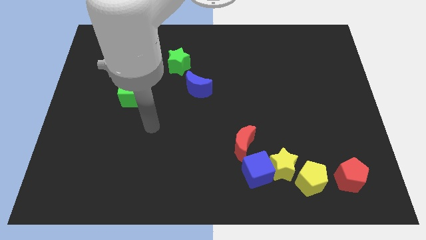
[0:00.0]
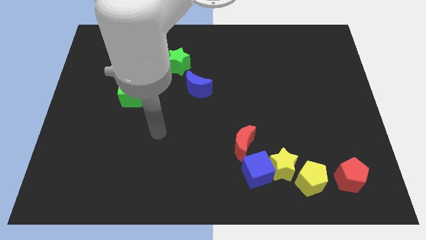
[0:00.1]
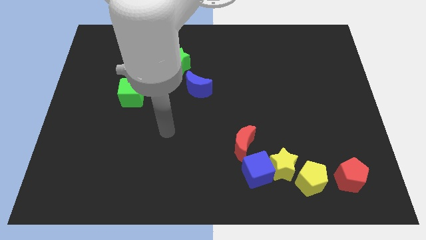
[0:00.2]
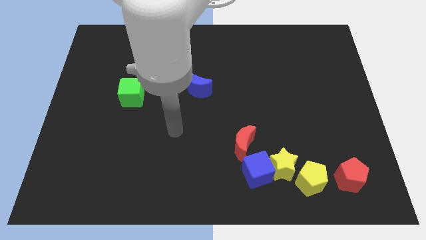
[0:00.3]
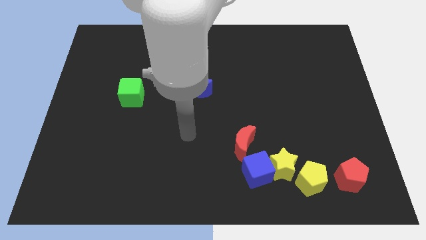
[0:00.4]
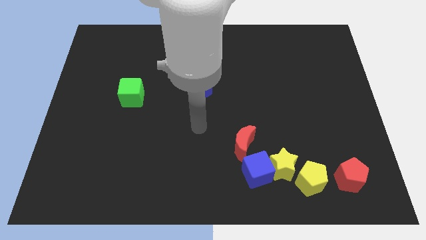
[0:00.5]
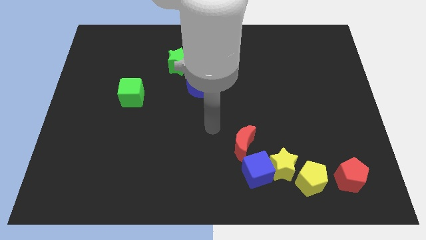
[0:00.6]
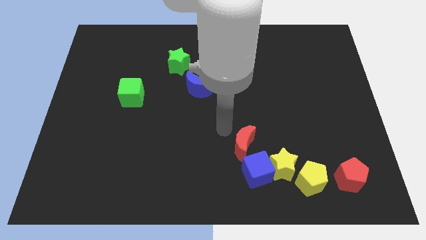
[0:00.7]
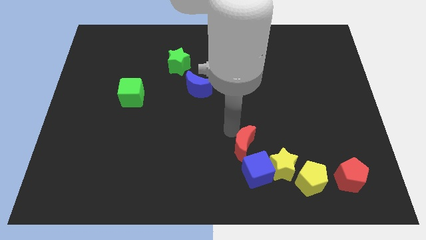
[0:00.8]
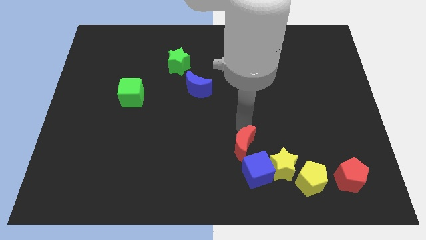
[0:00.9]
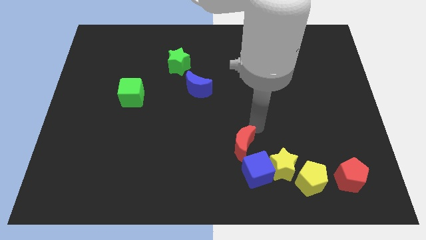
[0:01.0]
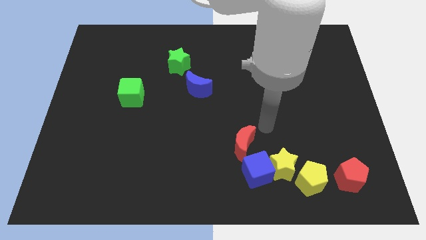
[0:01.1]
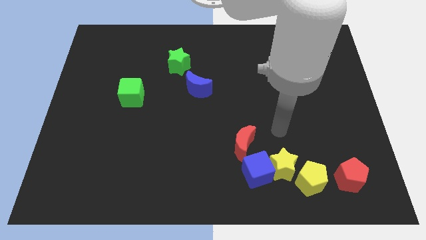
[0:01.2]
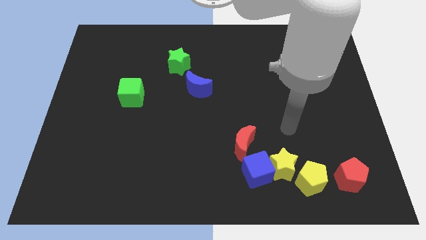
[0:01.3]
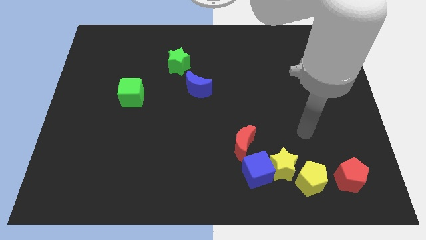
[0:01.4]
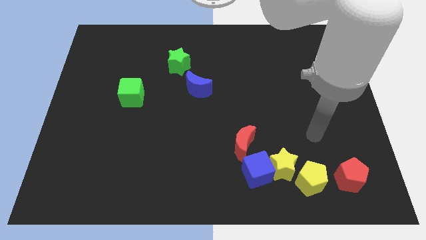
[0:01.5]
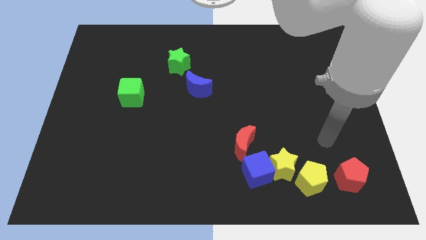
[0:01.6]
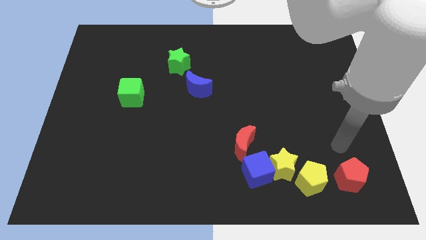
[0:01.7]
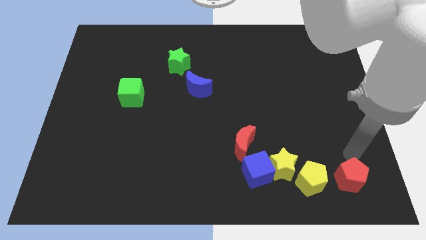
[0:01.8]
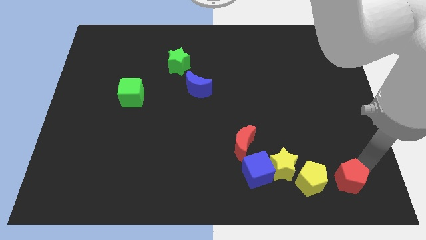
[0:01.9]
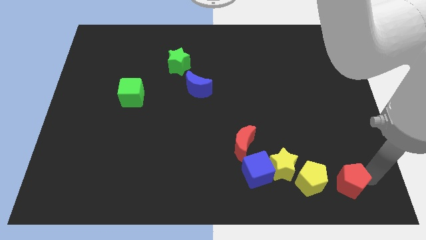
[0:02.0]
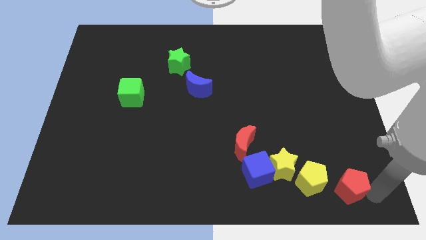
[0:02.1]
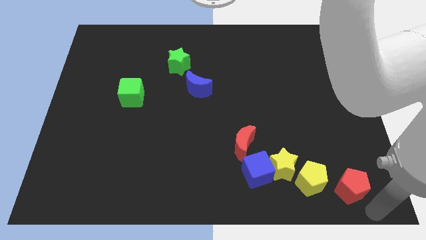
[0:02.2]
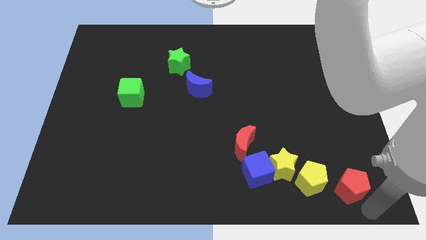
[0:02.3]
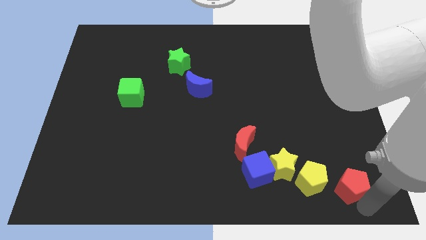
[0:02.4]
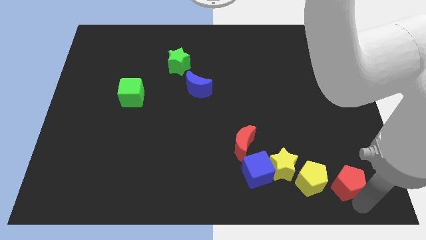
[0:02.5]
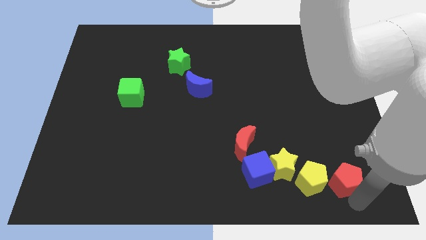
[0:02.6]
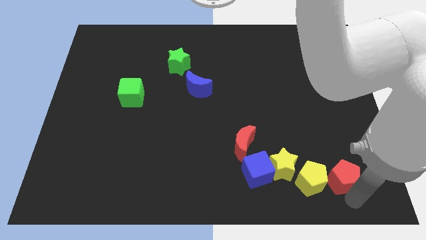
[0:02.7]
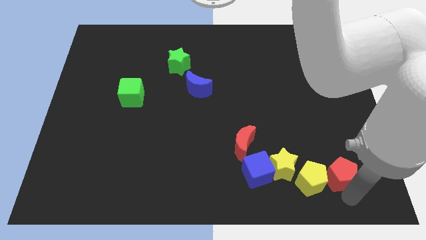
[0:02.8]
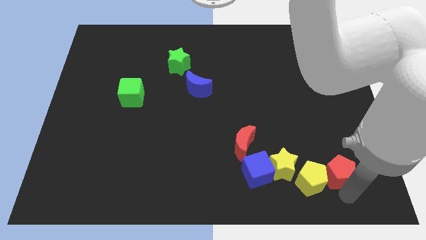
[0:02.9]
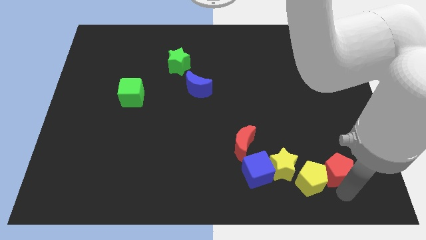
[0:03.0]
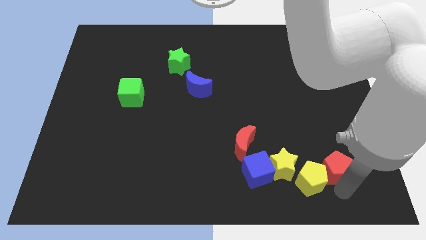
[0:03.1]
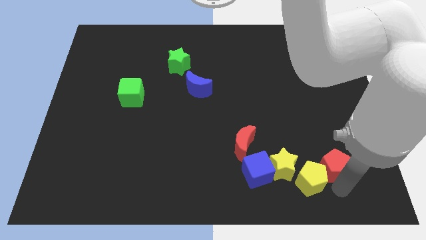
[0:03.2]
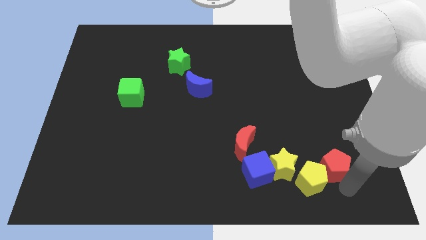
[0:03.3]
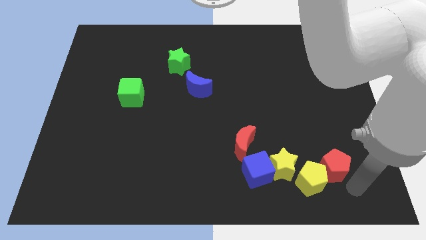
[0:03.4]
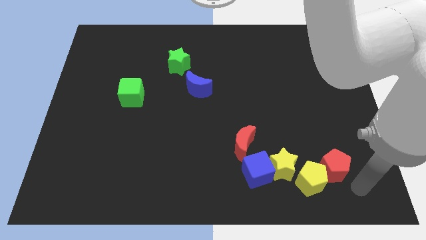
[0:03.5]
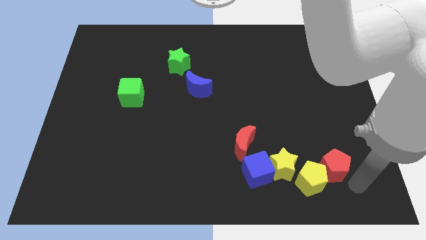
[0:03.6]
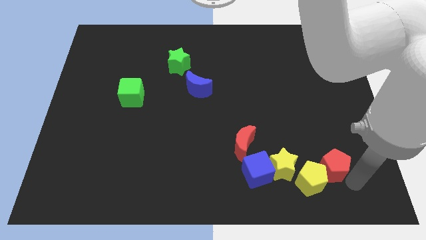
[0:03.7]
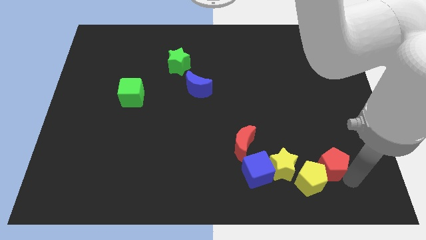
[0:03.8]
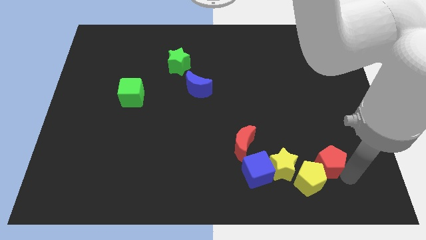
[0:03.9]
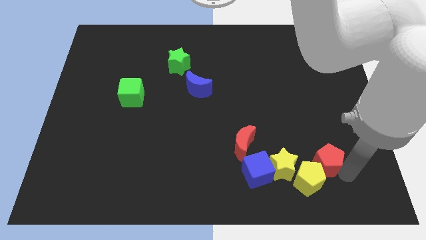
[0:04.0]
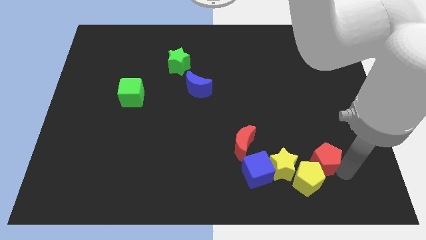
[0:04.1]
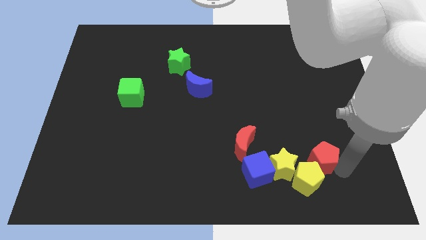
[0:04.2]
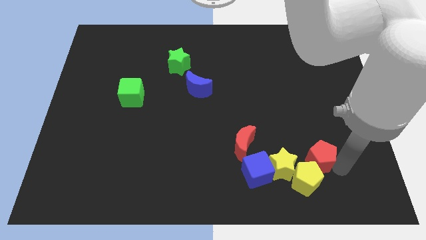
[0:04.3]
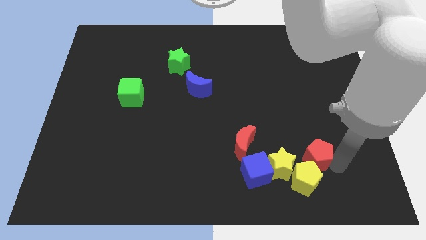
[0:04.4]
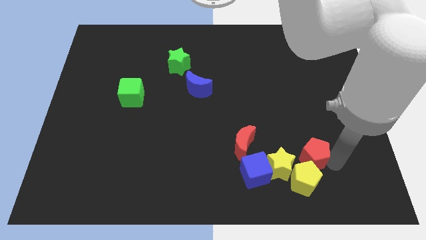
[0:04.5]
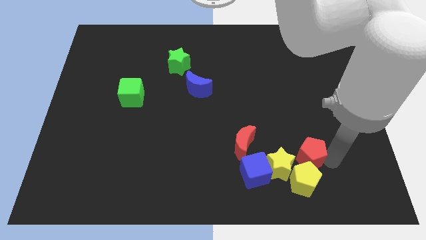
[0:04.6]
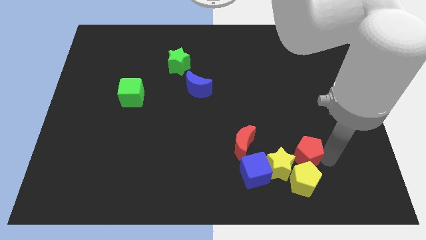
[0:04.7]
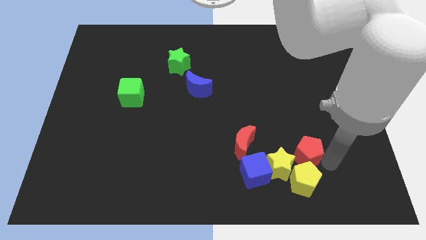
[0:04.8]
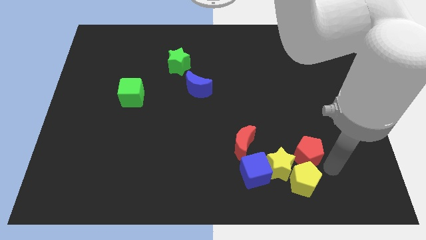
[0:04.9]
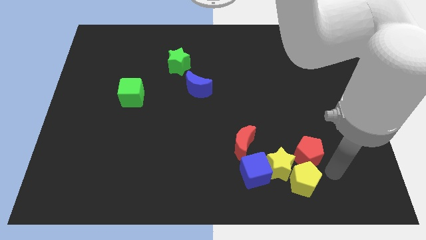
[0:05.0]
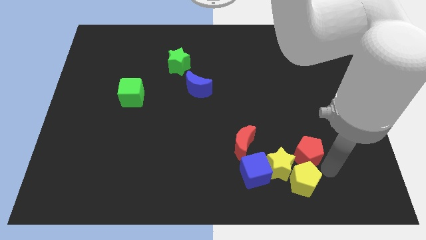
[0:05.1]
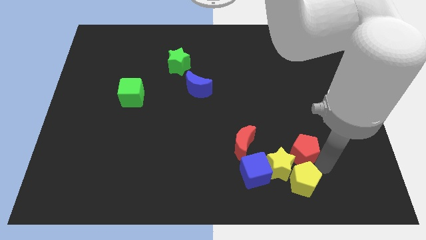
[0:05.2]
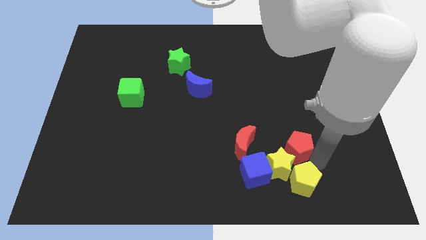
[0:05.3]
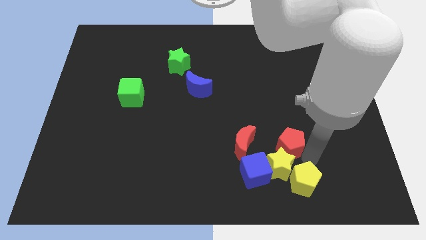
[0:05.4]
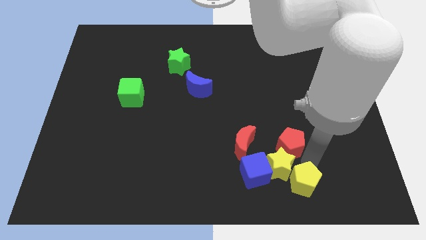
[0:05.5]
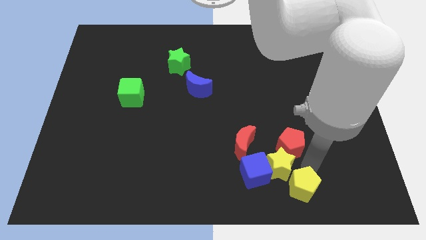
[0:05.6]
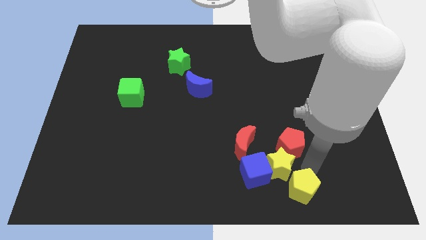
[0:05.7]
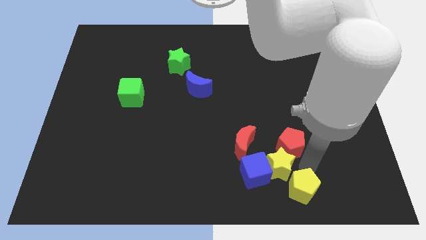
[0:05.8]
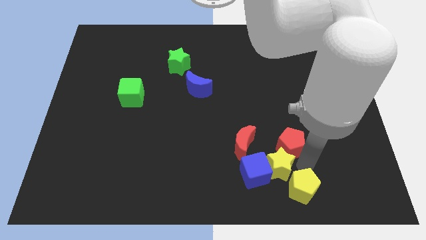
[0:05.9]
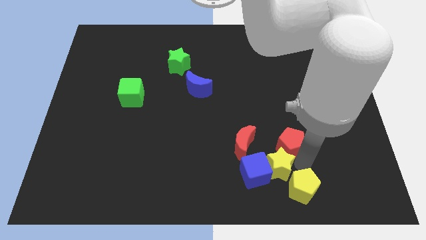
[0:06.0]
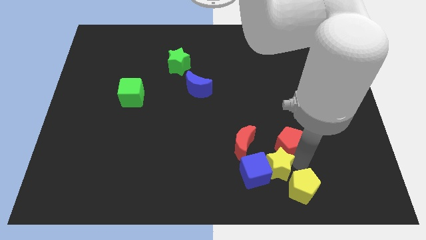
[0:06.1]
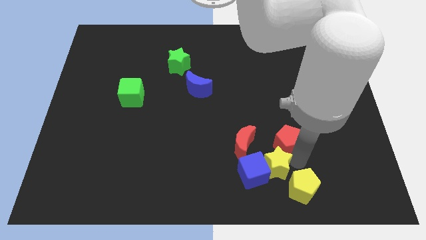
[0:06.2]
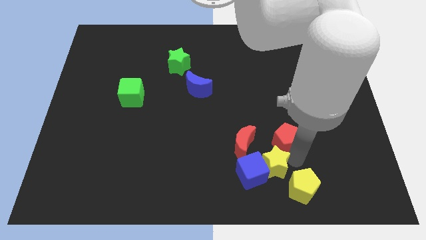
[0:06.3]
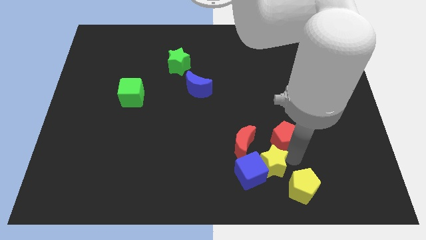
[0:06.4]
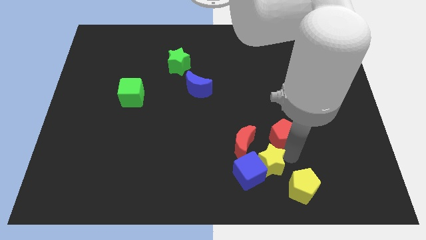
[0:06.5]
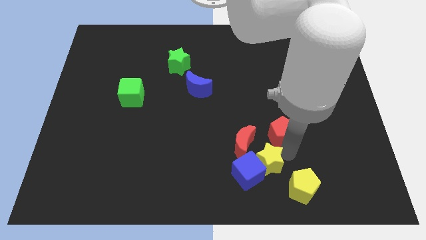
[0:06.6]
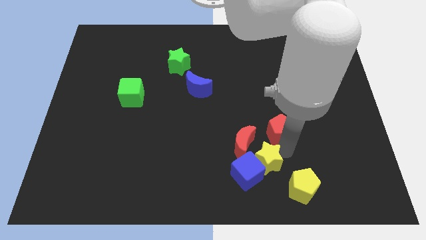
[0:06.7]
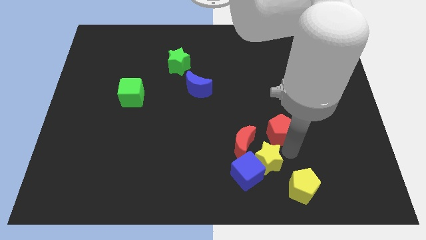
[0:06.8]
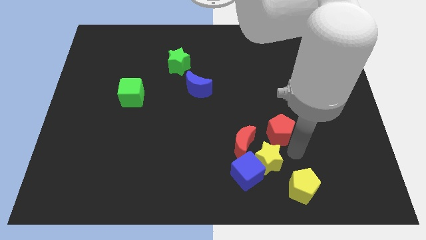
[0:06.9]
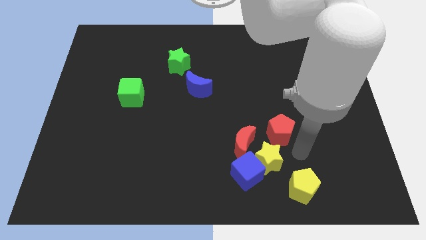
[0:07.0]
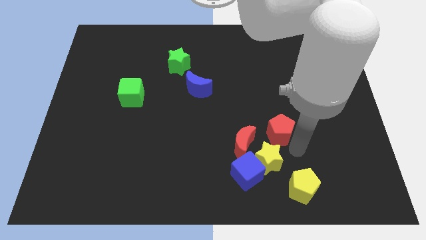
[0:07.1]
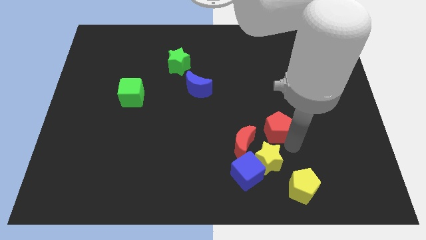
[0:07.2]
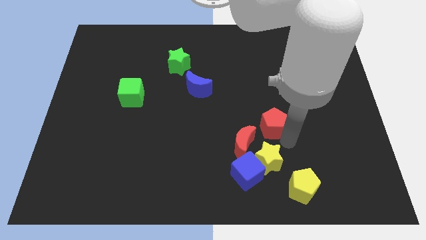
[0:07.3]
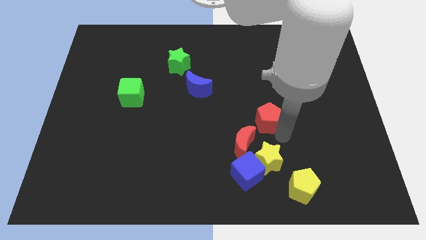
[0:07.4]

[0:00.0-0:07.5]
push the red pentagon upwards and left diagonally

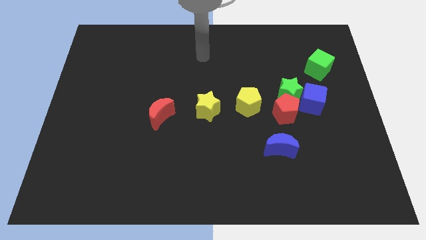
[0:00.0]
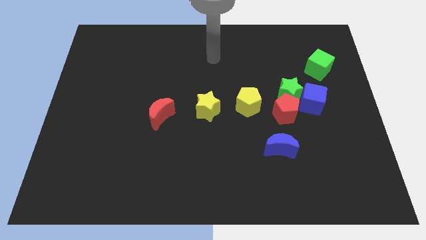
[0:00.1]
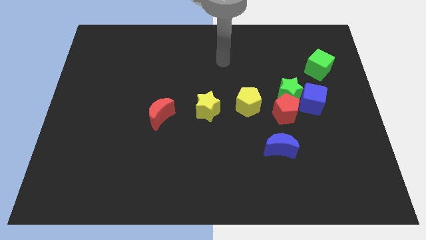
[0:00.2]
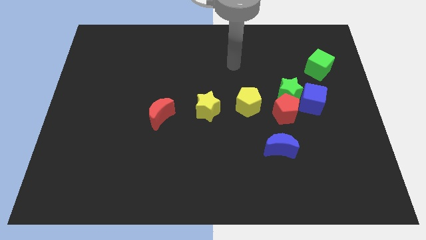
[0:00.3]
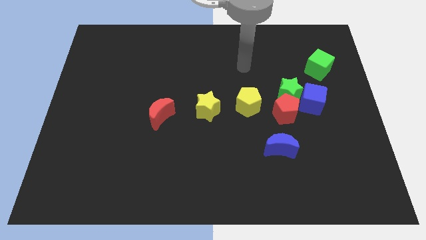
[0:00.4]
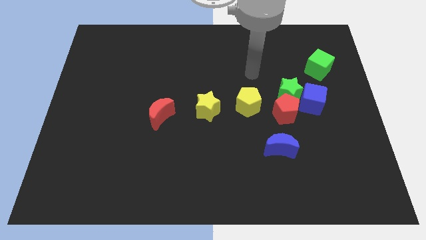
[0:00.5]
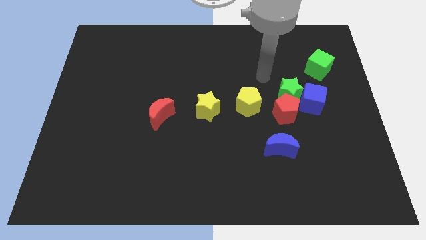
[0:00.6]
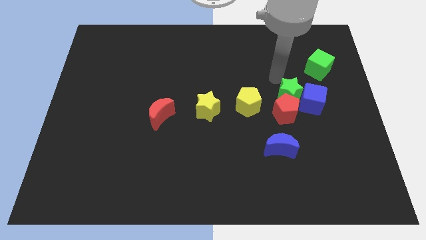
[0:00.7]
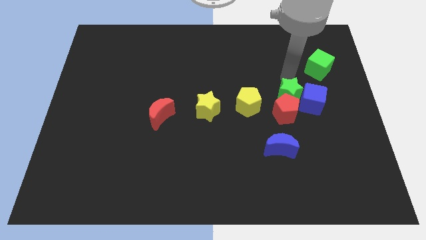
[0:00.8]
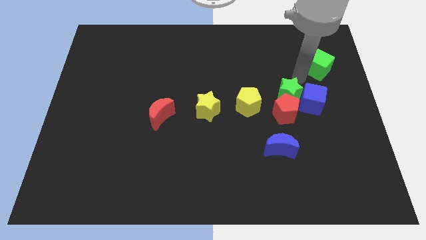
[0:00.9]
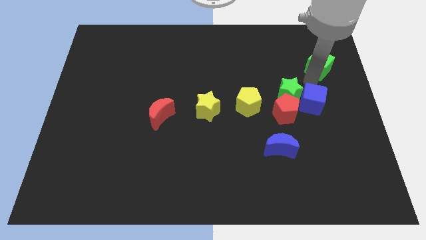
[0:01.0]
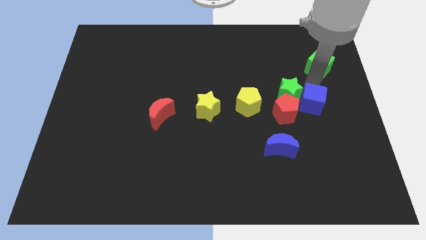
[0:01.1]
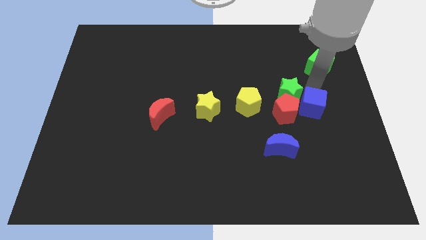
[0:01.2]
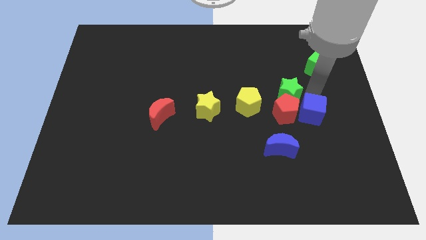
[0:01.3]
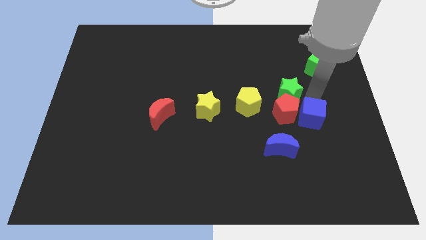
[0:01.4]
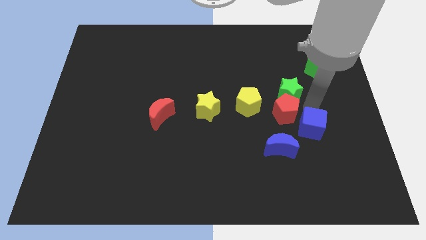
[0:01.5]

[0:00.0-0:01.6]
slide the blue cube down slightly
